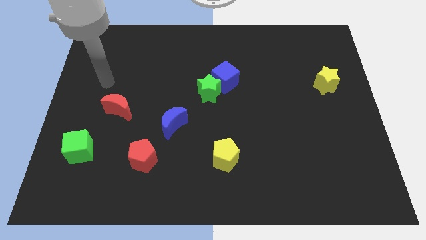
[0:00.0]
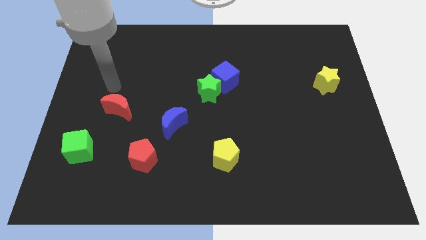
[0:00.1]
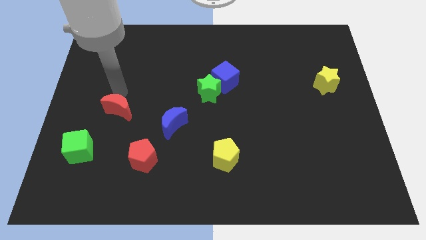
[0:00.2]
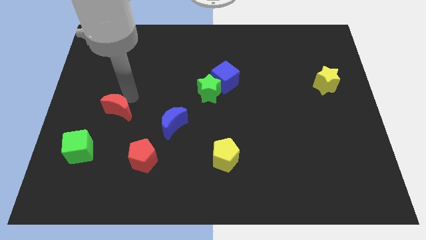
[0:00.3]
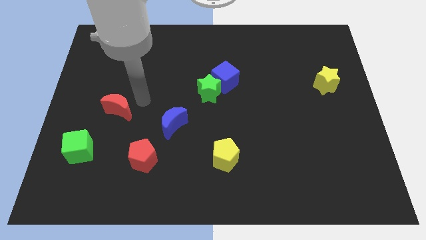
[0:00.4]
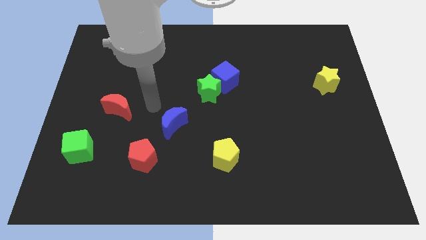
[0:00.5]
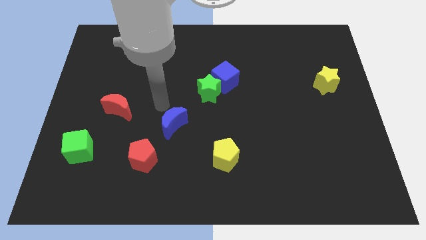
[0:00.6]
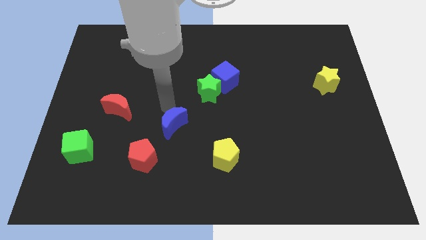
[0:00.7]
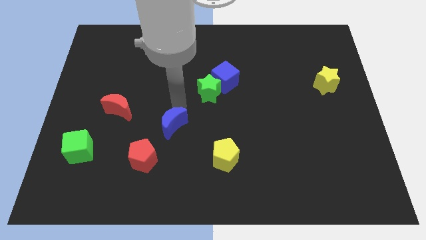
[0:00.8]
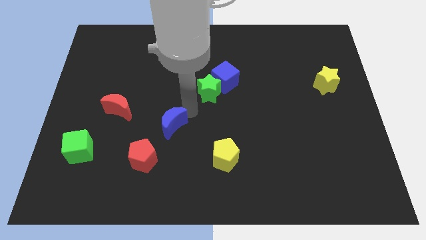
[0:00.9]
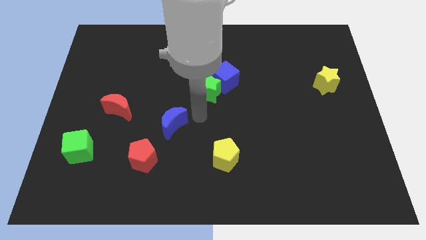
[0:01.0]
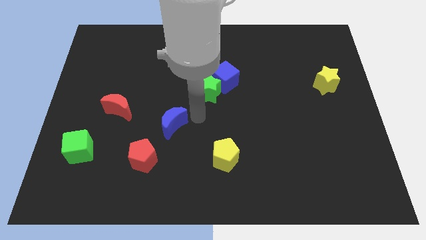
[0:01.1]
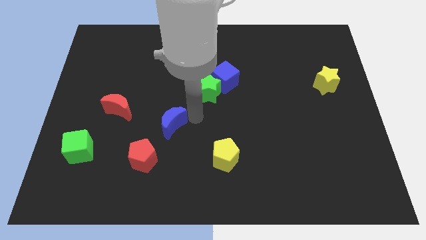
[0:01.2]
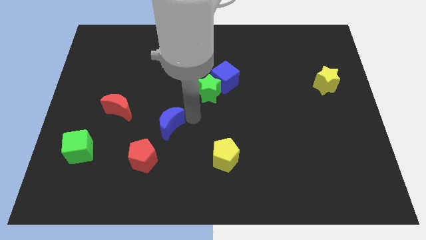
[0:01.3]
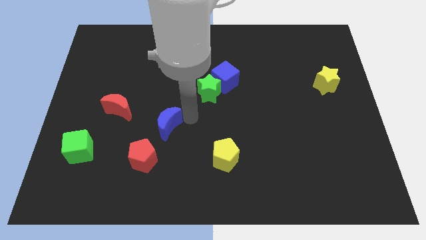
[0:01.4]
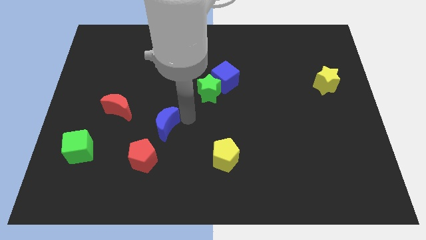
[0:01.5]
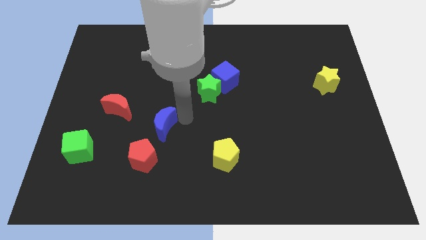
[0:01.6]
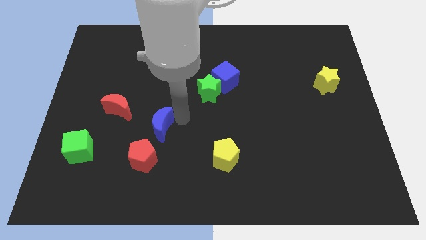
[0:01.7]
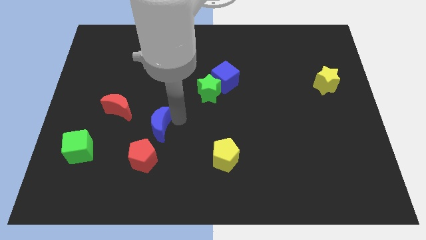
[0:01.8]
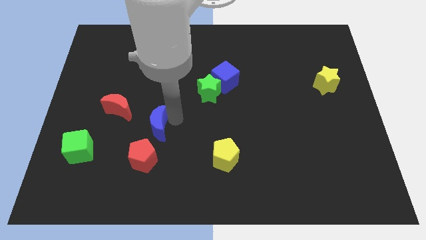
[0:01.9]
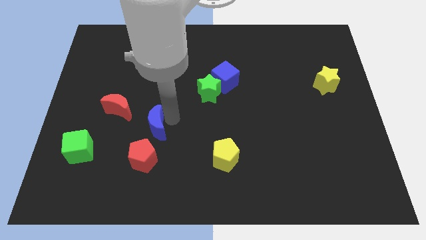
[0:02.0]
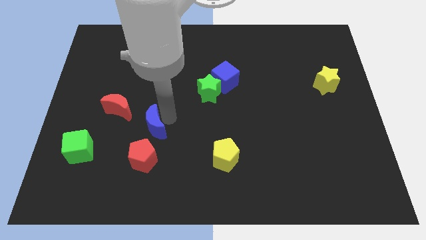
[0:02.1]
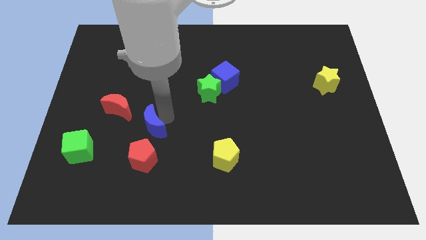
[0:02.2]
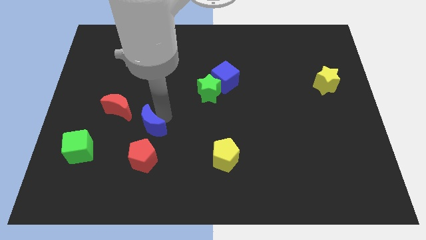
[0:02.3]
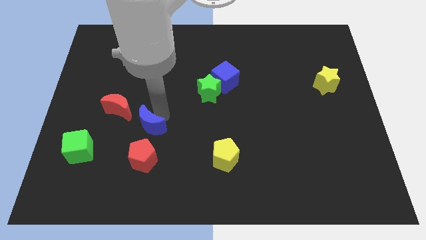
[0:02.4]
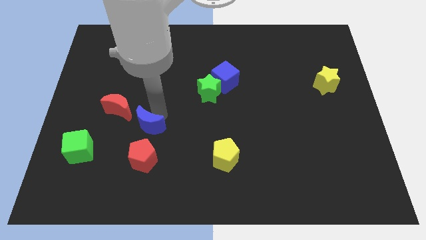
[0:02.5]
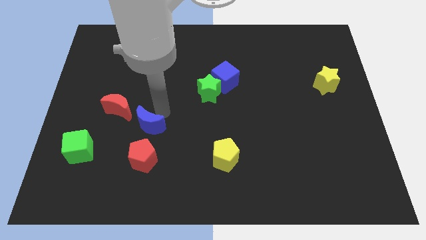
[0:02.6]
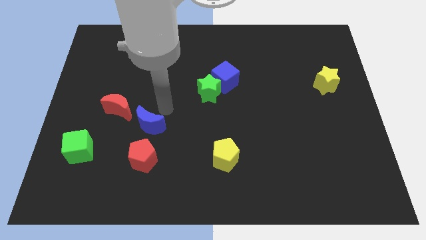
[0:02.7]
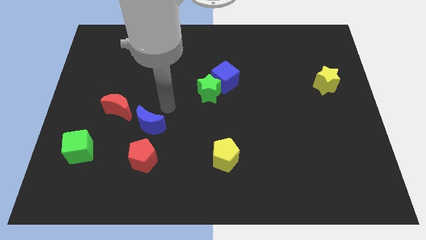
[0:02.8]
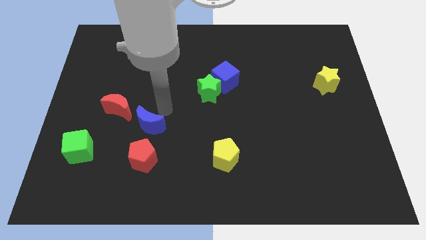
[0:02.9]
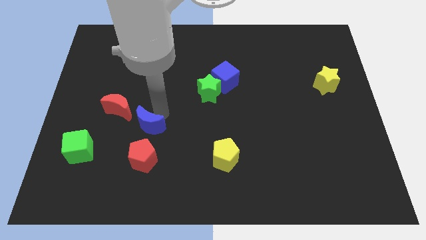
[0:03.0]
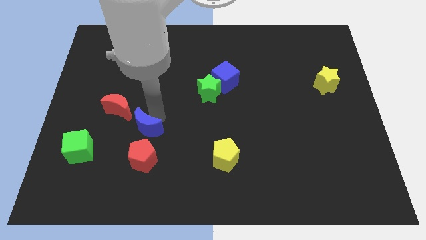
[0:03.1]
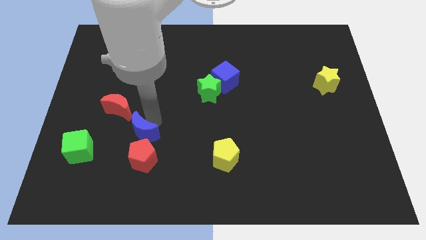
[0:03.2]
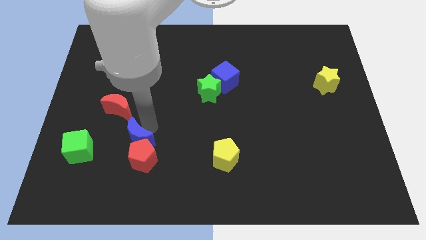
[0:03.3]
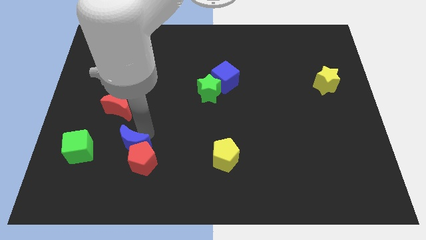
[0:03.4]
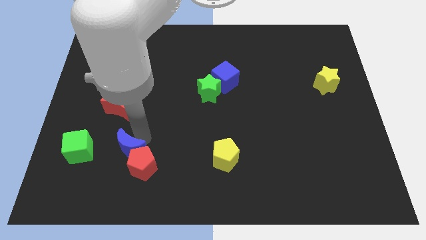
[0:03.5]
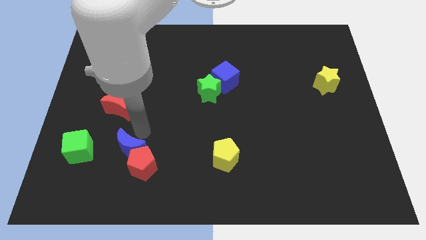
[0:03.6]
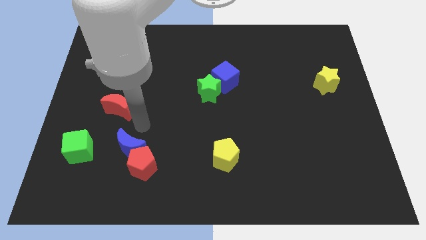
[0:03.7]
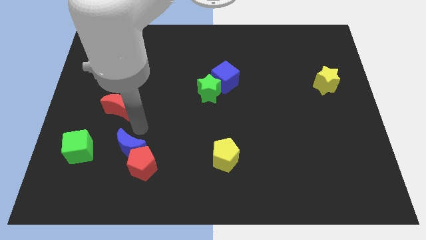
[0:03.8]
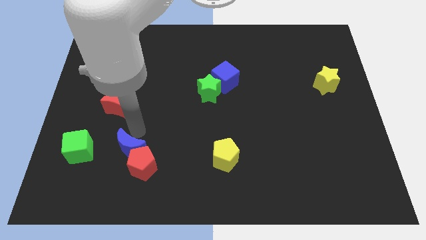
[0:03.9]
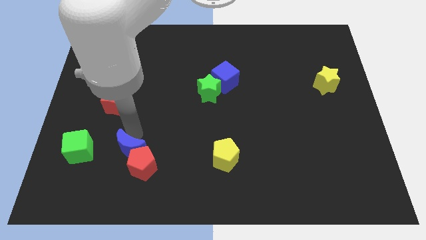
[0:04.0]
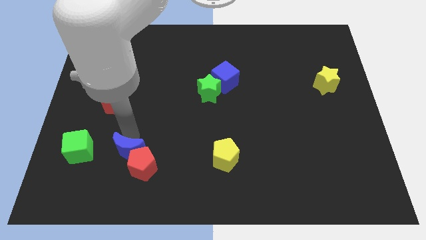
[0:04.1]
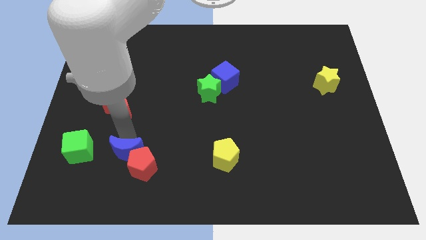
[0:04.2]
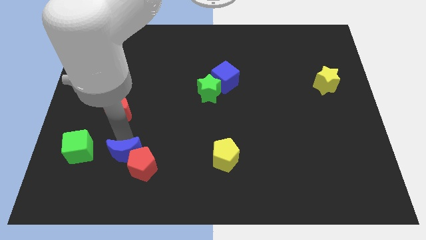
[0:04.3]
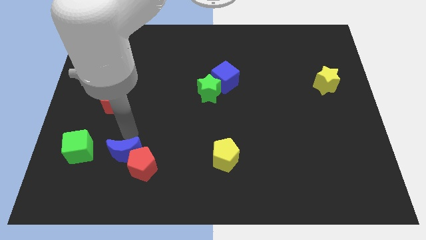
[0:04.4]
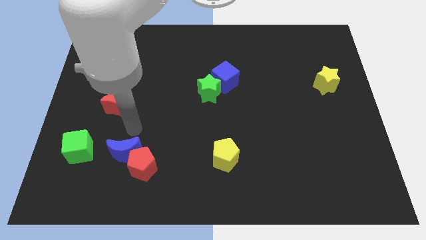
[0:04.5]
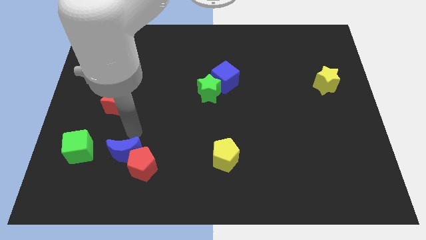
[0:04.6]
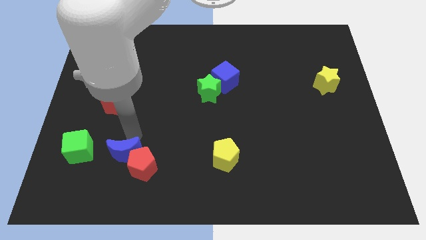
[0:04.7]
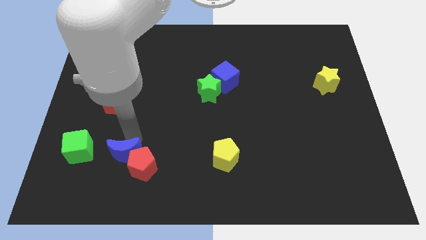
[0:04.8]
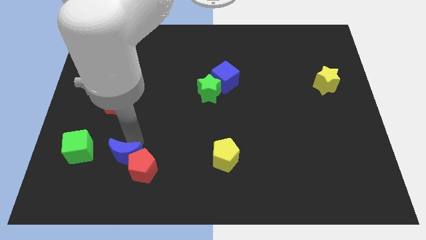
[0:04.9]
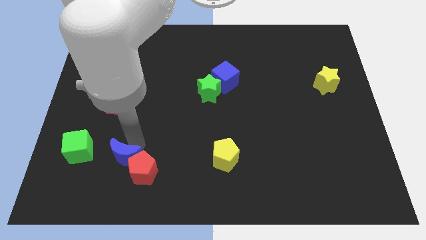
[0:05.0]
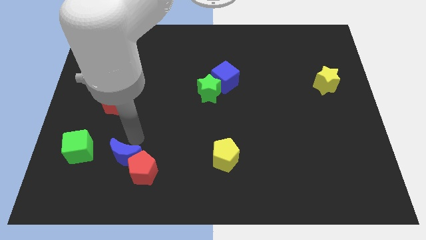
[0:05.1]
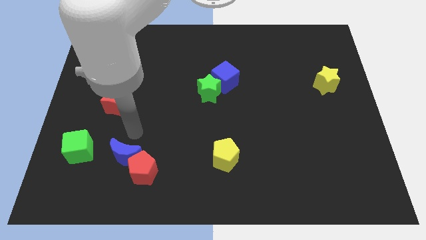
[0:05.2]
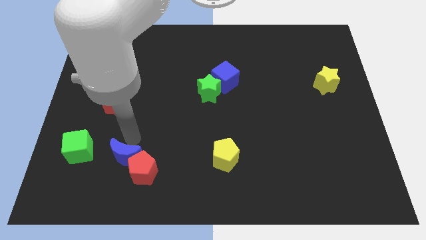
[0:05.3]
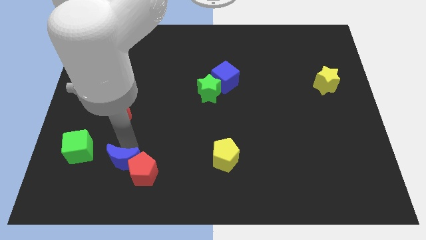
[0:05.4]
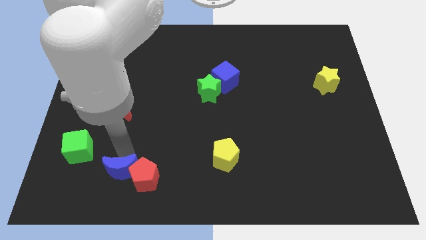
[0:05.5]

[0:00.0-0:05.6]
put the blue moon to the bottom left of the red pentagon

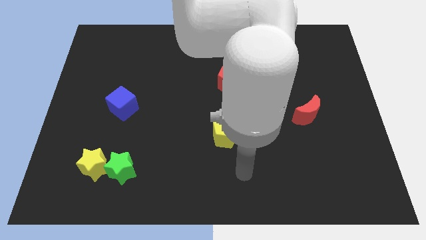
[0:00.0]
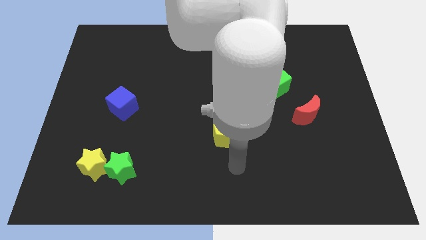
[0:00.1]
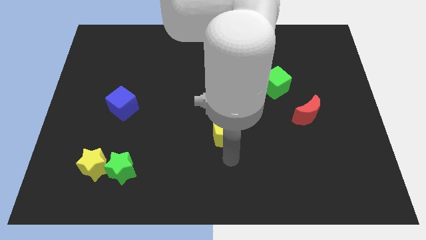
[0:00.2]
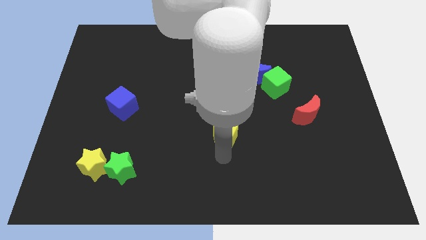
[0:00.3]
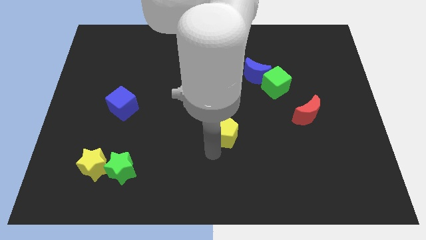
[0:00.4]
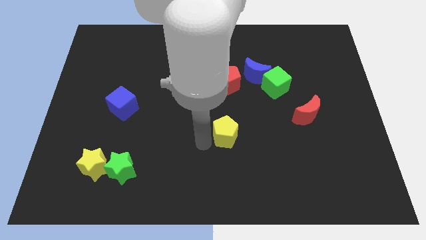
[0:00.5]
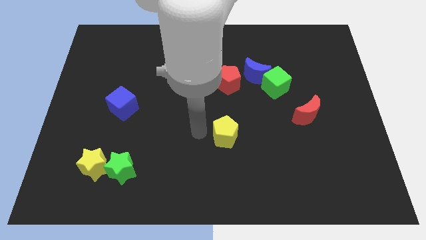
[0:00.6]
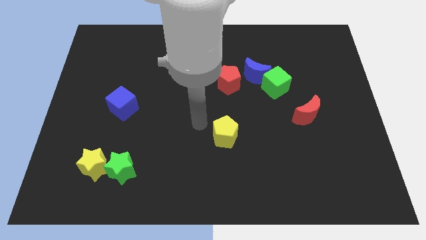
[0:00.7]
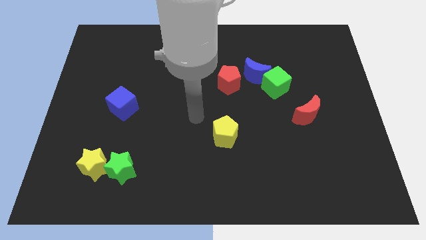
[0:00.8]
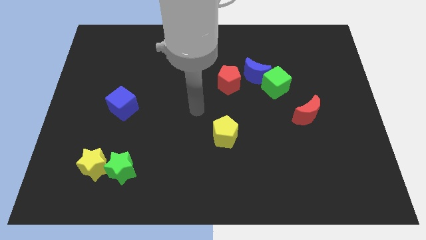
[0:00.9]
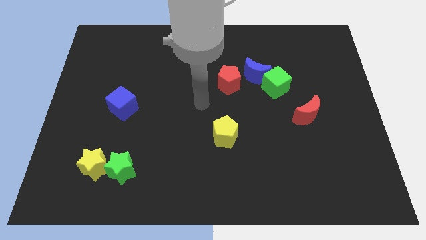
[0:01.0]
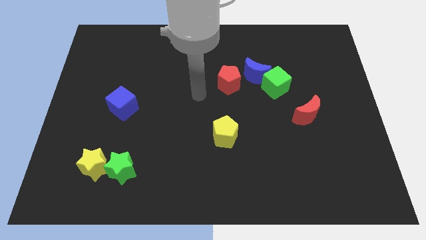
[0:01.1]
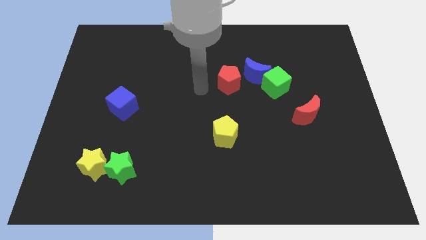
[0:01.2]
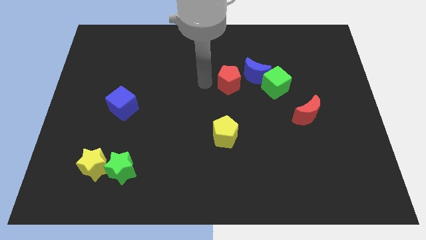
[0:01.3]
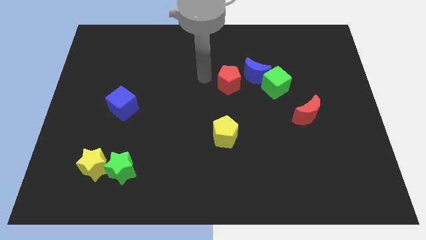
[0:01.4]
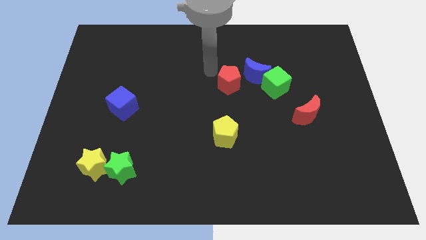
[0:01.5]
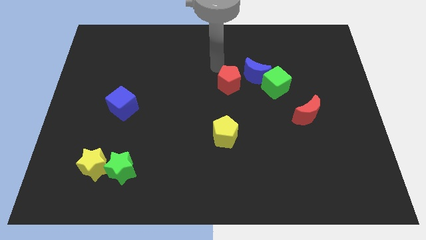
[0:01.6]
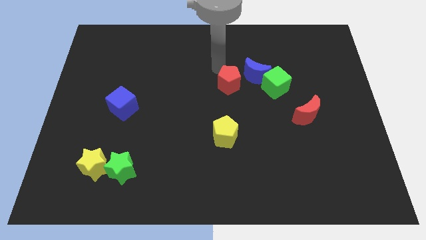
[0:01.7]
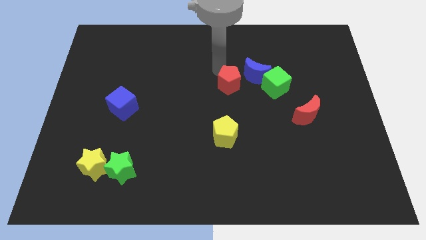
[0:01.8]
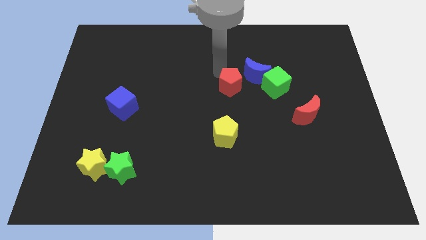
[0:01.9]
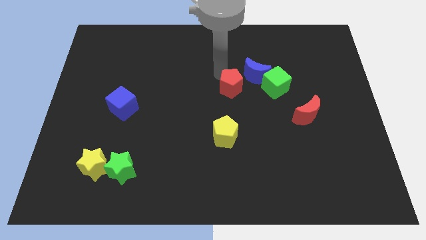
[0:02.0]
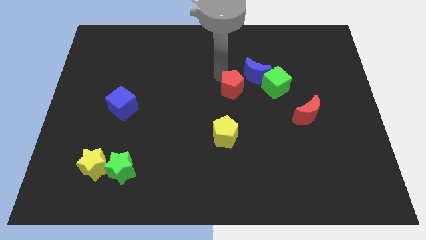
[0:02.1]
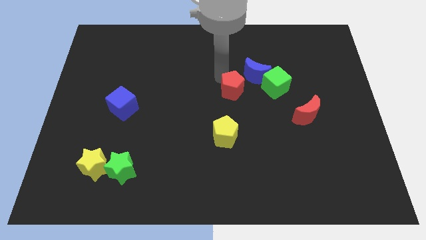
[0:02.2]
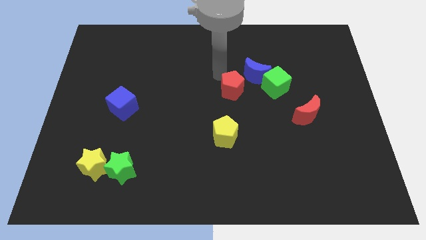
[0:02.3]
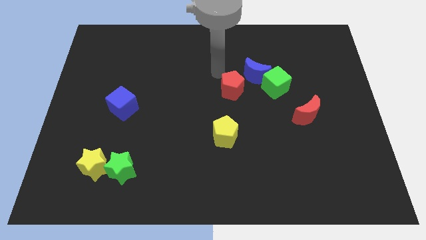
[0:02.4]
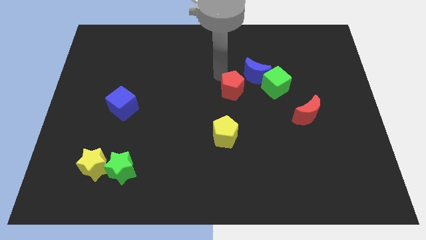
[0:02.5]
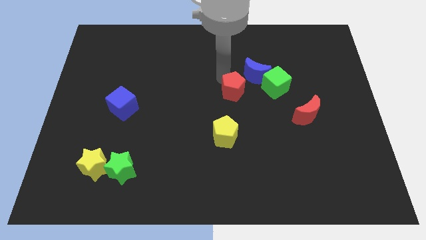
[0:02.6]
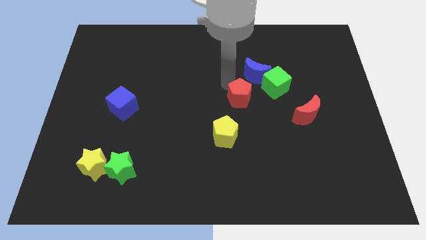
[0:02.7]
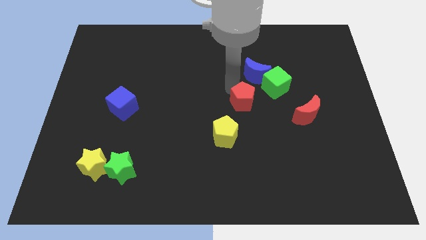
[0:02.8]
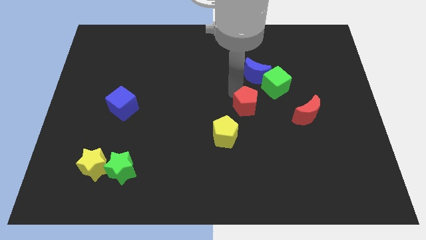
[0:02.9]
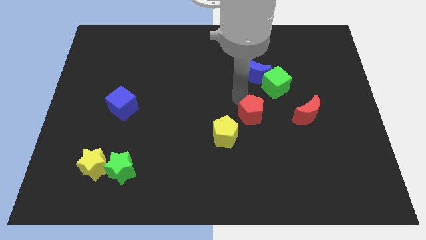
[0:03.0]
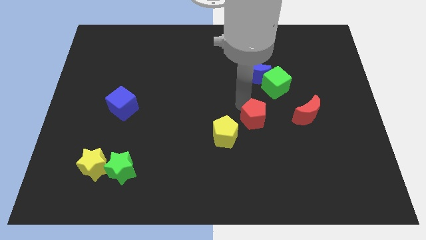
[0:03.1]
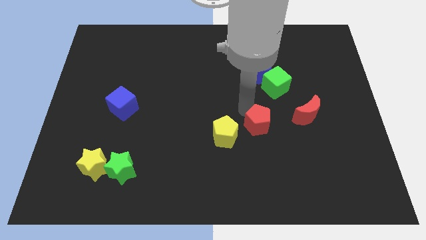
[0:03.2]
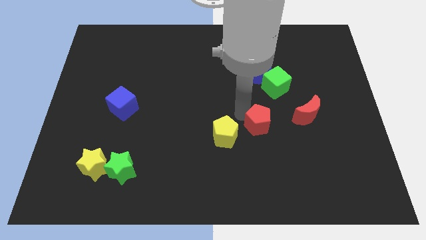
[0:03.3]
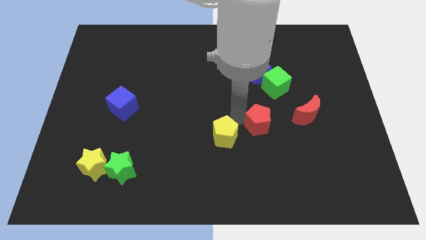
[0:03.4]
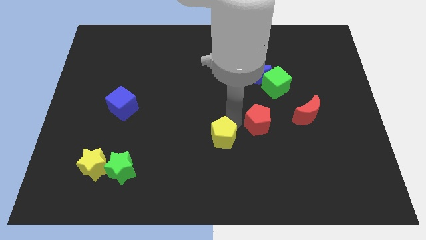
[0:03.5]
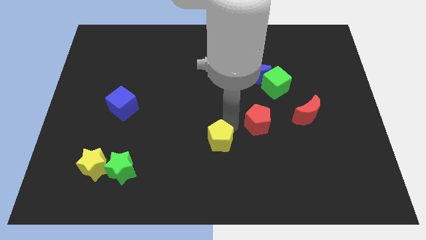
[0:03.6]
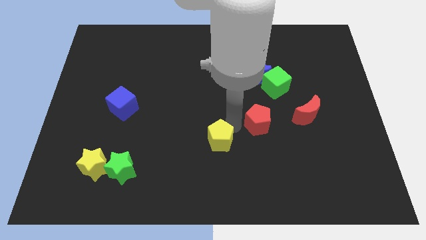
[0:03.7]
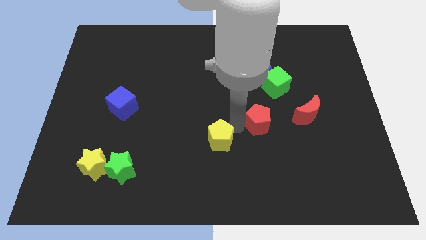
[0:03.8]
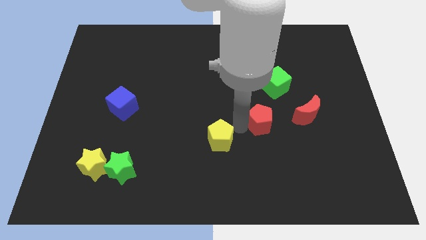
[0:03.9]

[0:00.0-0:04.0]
move the red pentagon below the green cube
